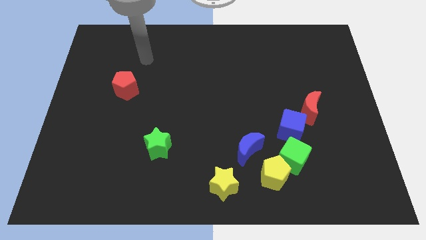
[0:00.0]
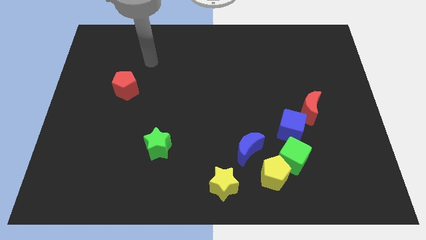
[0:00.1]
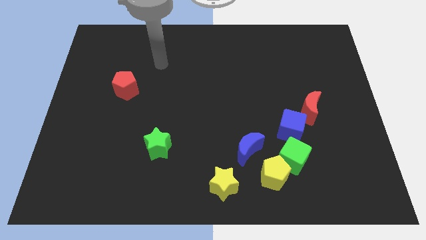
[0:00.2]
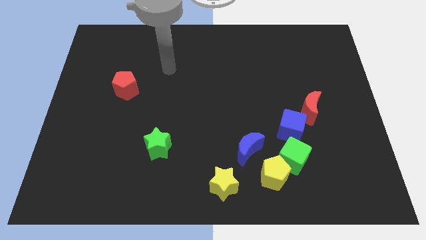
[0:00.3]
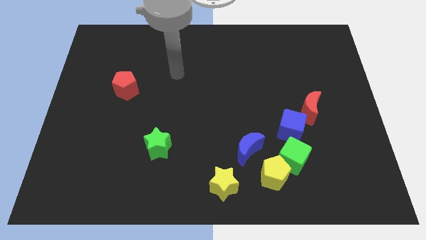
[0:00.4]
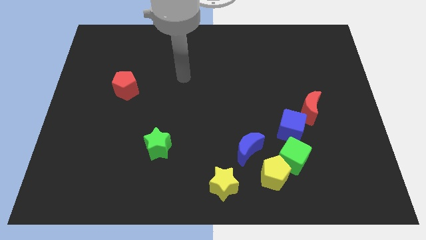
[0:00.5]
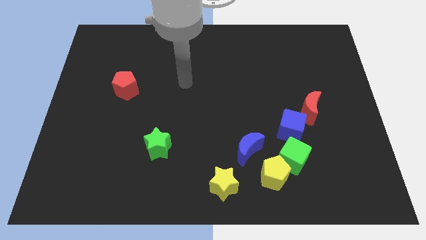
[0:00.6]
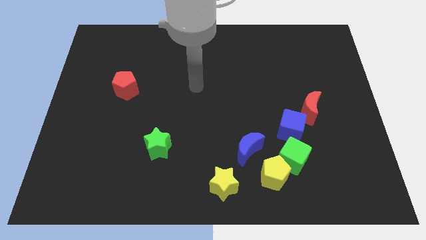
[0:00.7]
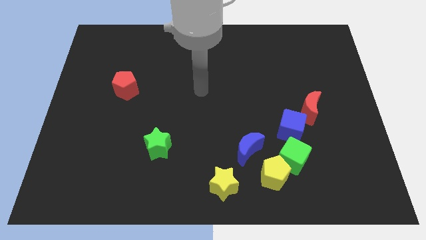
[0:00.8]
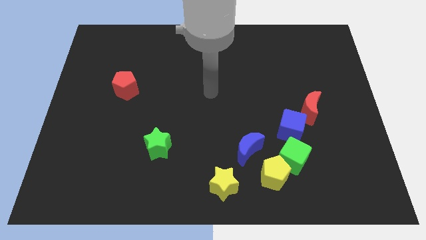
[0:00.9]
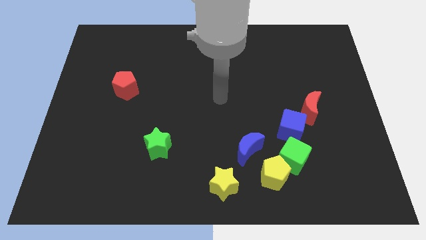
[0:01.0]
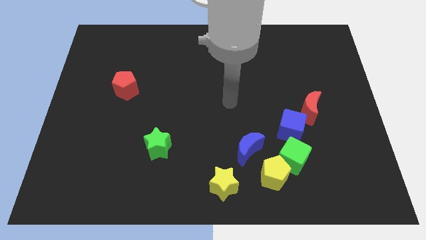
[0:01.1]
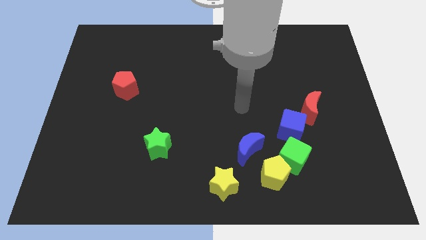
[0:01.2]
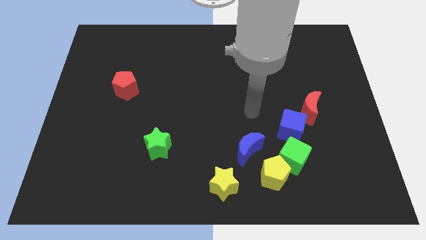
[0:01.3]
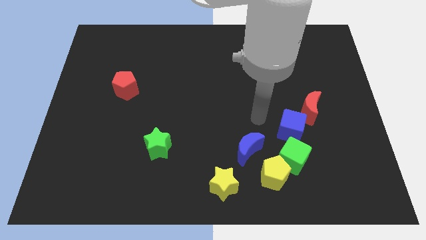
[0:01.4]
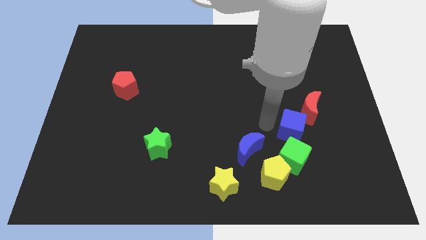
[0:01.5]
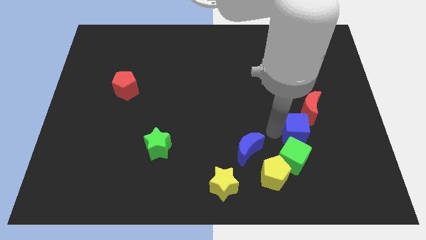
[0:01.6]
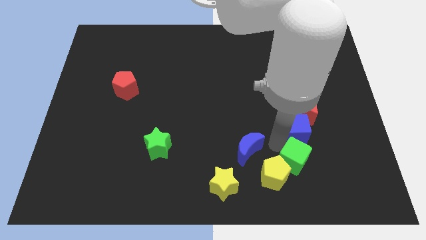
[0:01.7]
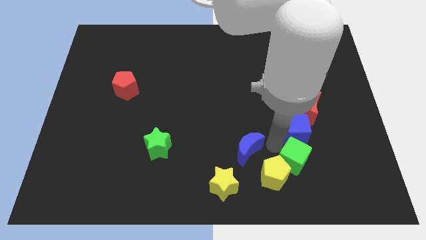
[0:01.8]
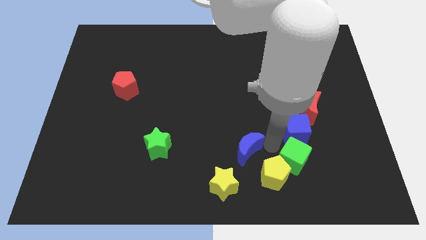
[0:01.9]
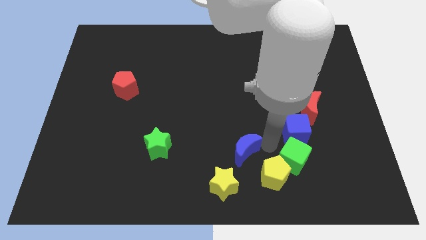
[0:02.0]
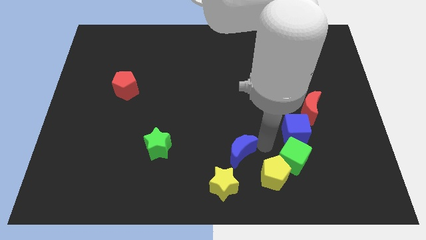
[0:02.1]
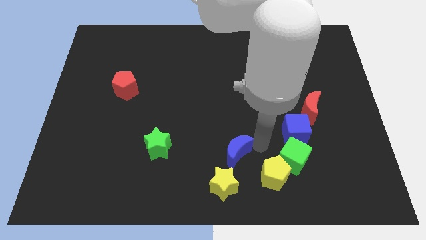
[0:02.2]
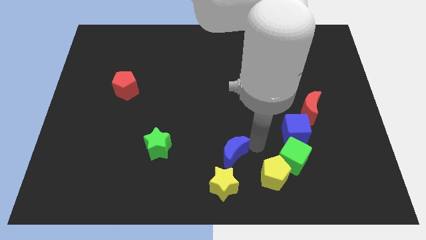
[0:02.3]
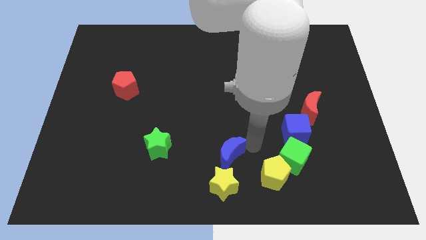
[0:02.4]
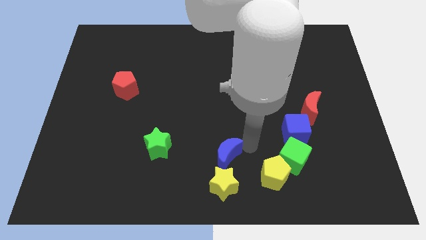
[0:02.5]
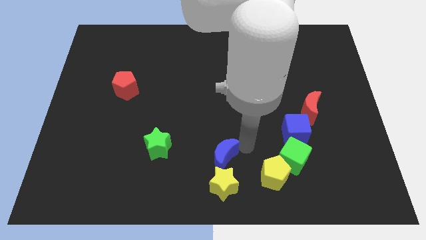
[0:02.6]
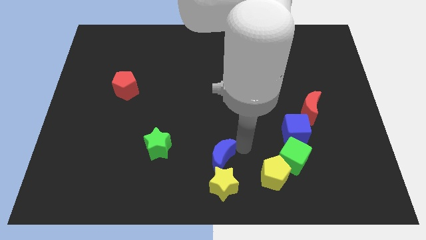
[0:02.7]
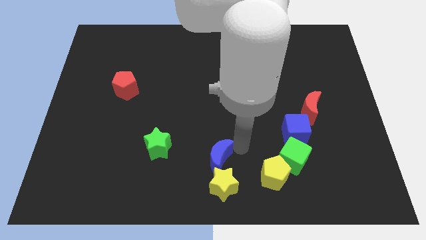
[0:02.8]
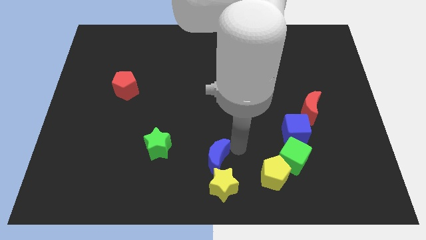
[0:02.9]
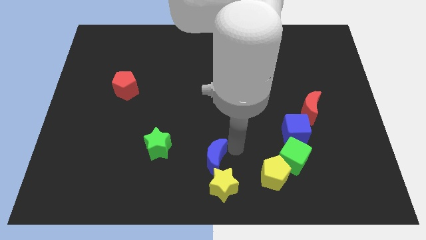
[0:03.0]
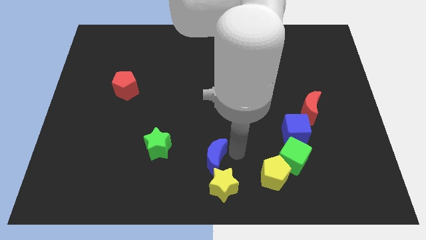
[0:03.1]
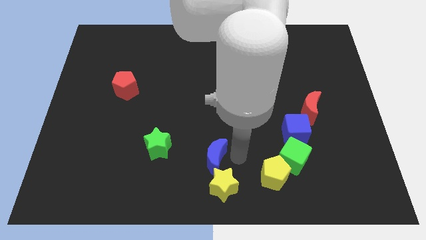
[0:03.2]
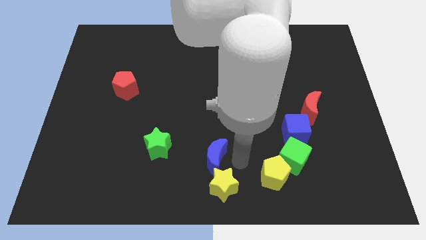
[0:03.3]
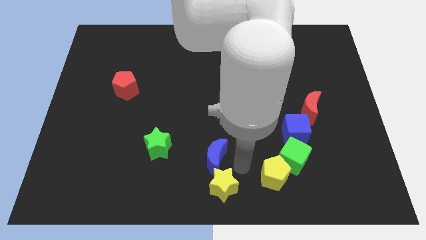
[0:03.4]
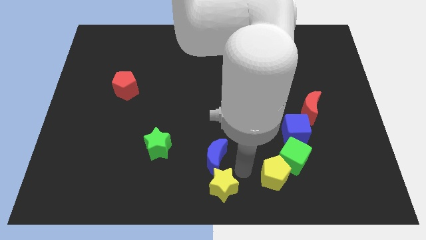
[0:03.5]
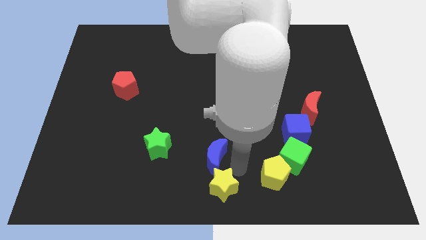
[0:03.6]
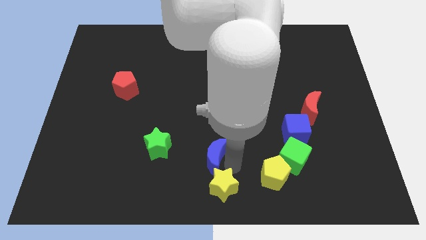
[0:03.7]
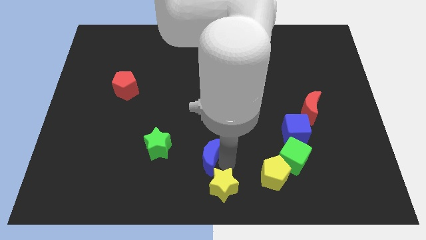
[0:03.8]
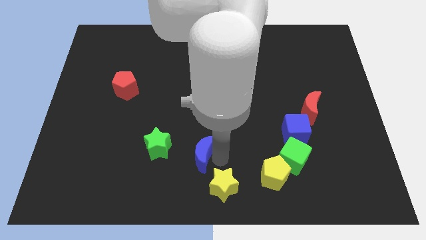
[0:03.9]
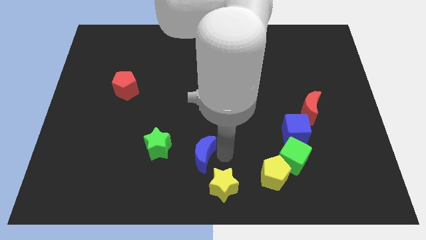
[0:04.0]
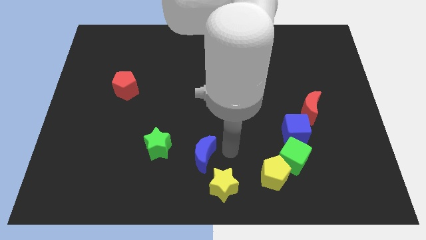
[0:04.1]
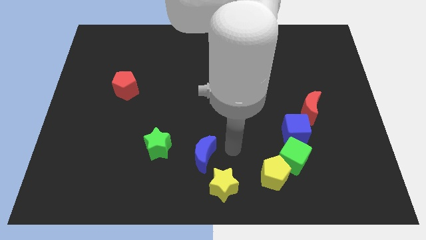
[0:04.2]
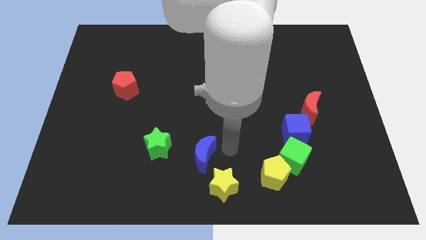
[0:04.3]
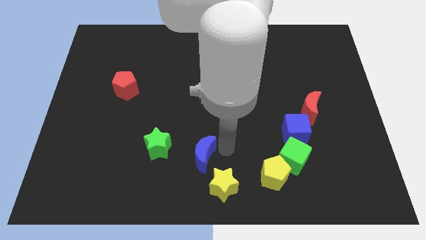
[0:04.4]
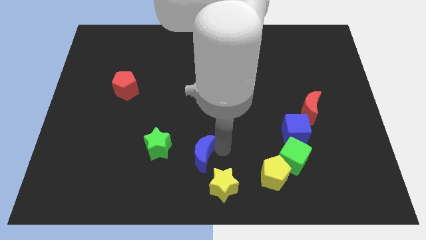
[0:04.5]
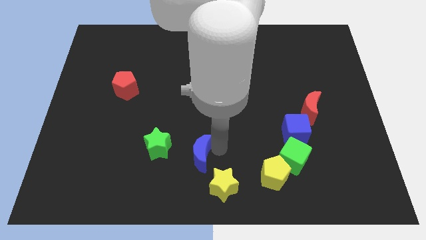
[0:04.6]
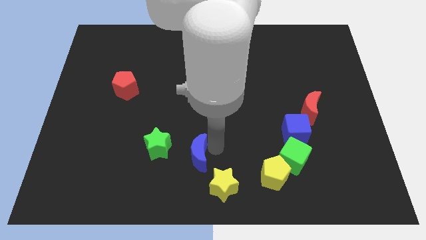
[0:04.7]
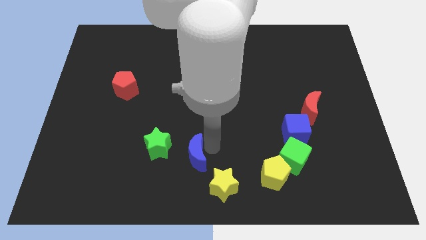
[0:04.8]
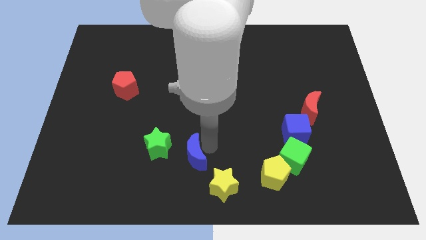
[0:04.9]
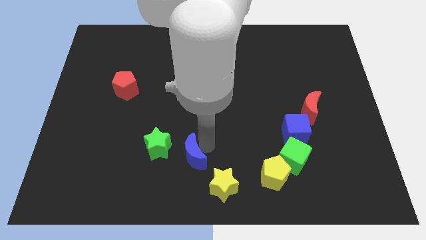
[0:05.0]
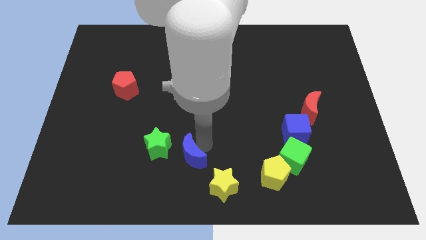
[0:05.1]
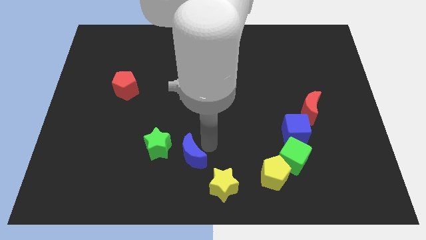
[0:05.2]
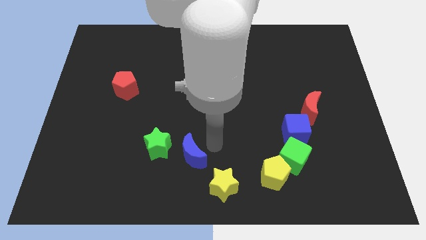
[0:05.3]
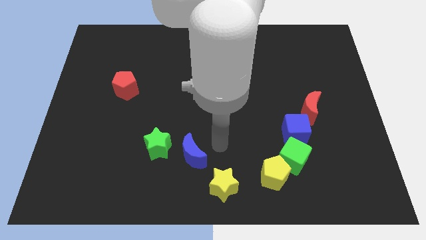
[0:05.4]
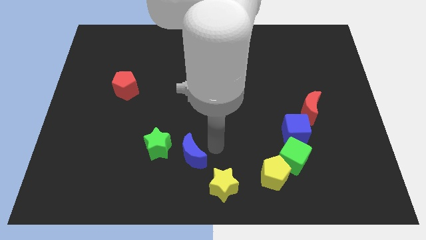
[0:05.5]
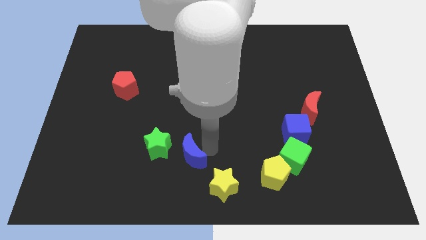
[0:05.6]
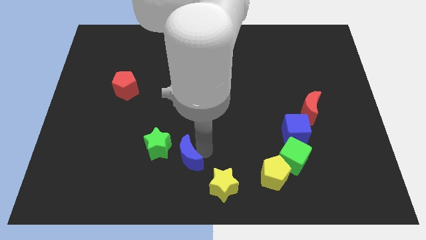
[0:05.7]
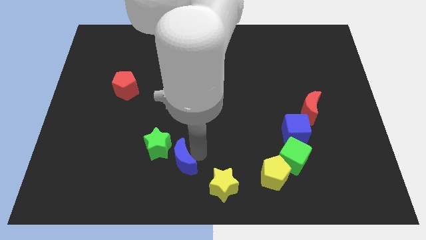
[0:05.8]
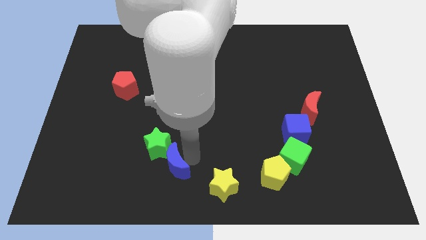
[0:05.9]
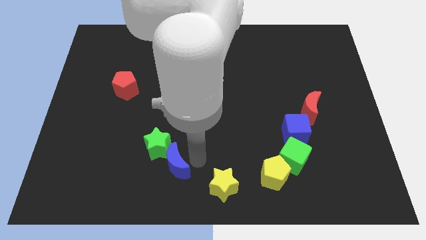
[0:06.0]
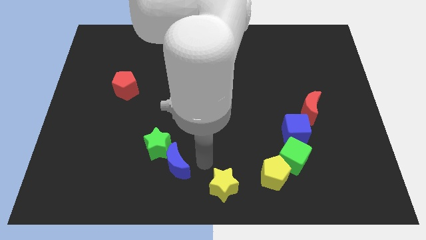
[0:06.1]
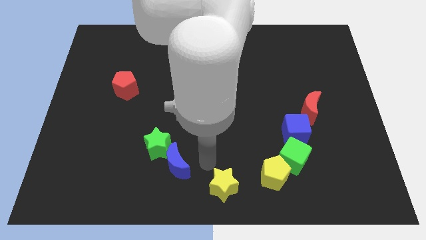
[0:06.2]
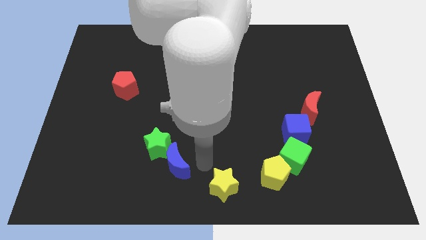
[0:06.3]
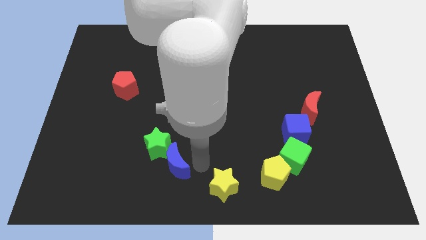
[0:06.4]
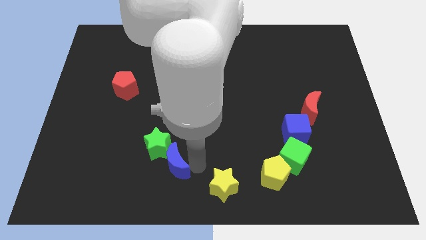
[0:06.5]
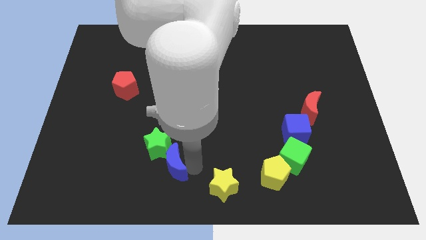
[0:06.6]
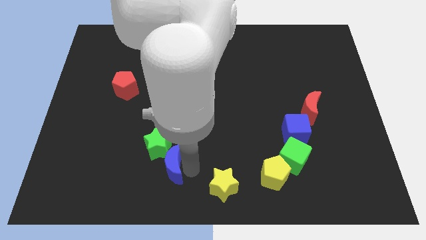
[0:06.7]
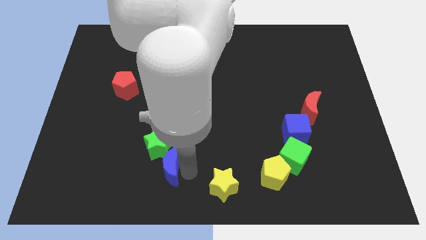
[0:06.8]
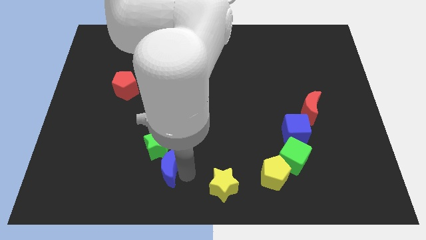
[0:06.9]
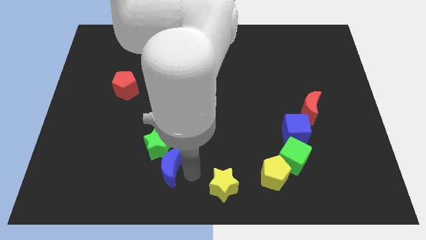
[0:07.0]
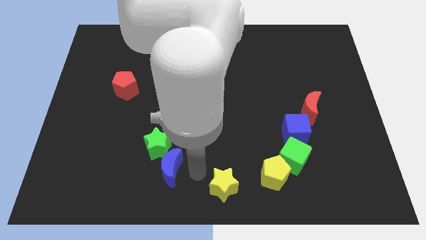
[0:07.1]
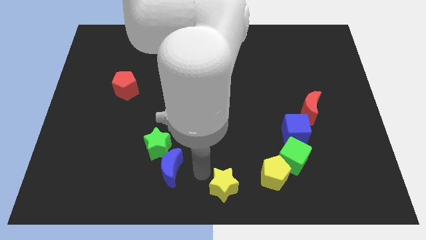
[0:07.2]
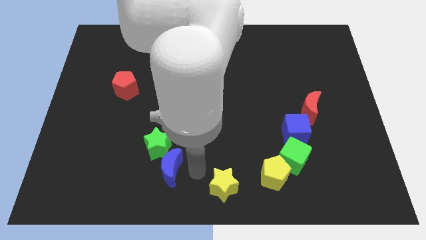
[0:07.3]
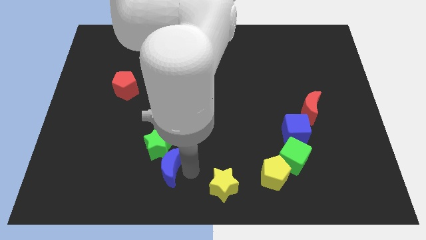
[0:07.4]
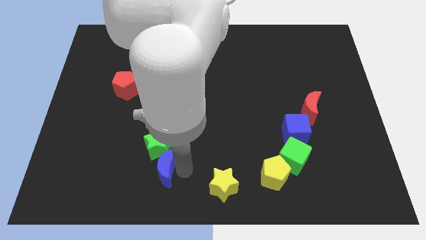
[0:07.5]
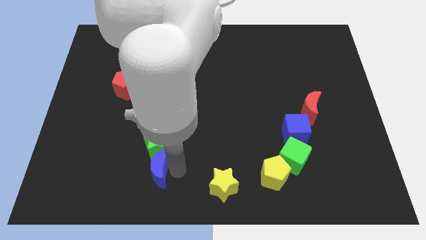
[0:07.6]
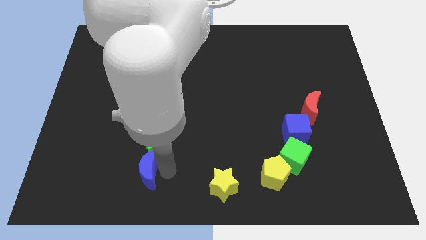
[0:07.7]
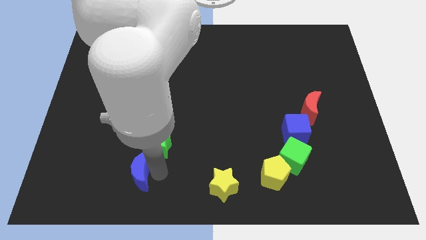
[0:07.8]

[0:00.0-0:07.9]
slide the blue moon to the left
